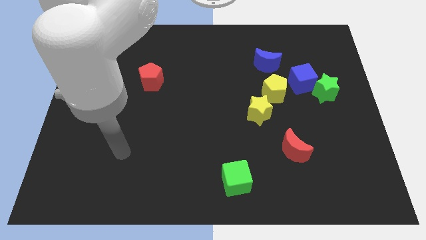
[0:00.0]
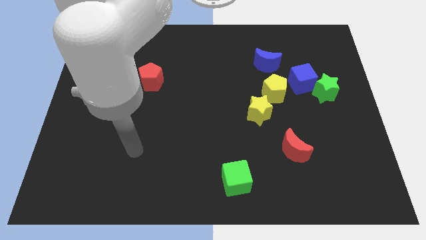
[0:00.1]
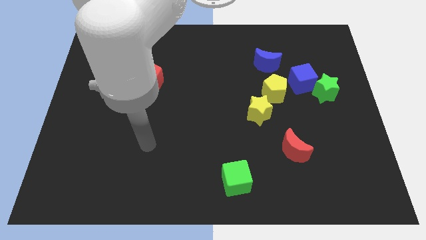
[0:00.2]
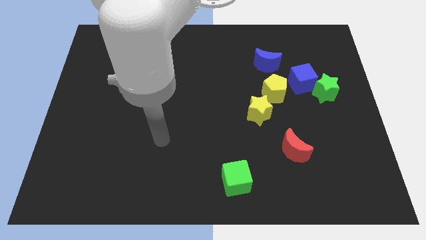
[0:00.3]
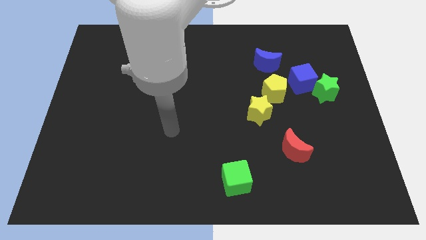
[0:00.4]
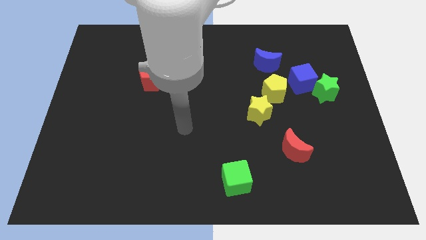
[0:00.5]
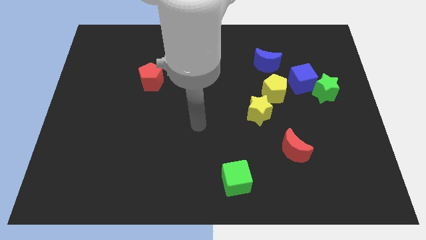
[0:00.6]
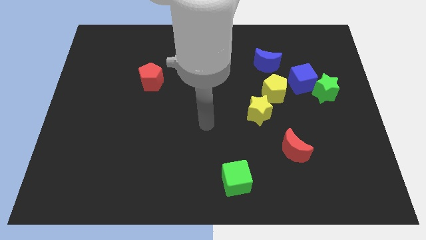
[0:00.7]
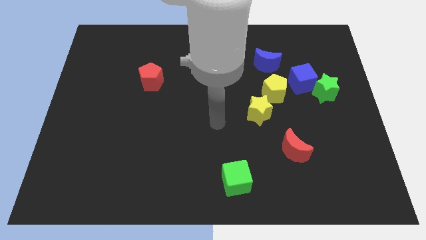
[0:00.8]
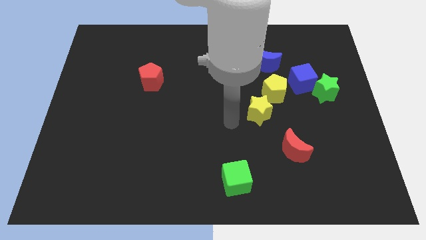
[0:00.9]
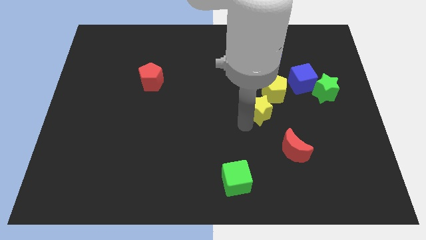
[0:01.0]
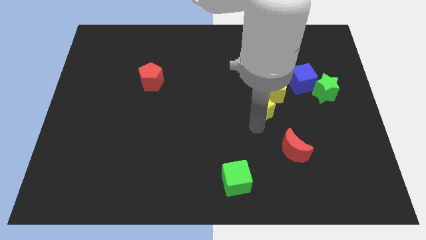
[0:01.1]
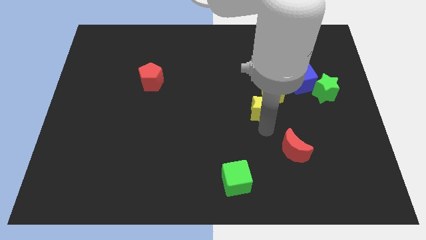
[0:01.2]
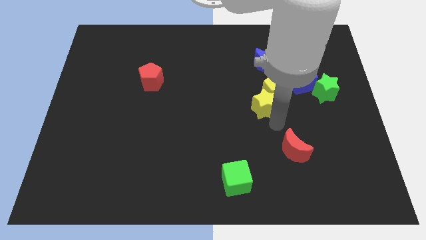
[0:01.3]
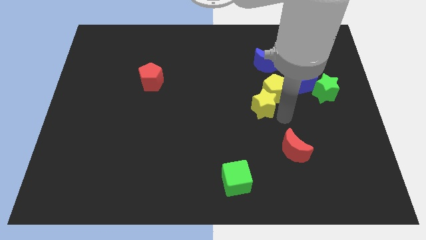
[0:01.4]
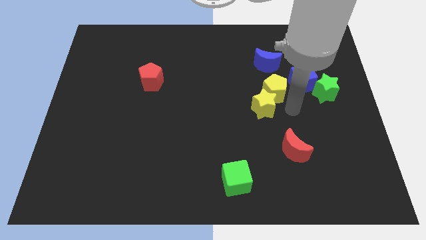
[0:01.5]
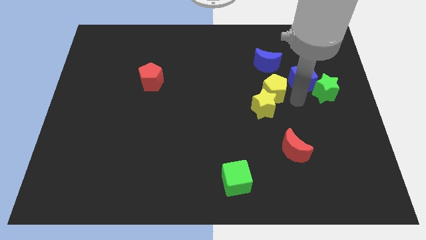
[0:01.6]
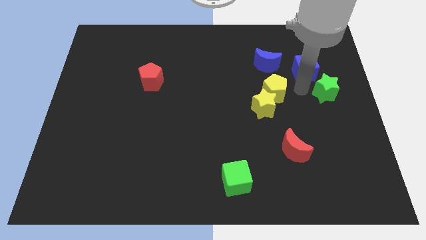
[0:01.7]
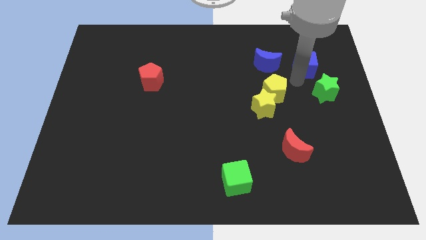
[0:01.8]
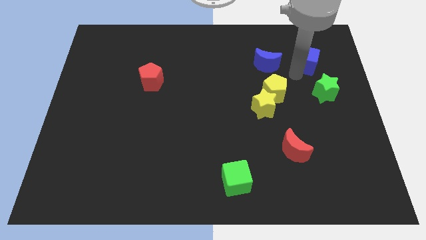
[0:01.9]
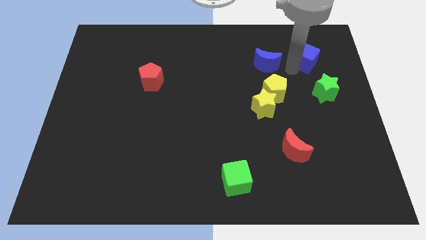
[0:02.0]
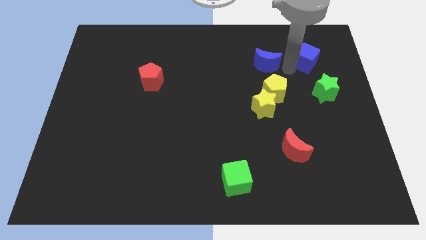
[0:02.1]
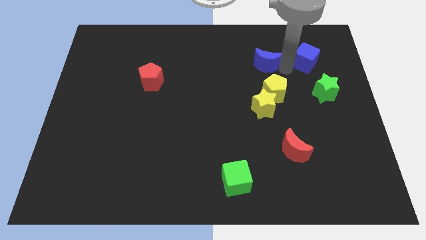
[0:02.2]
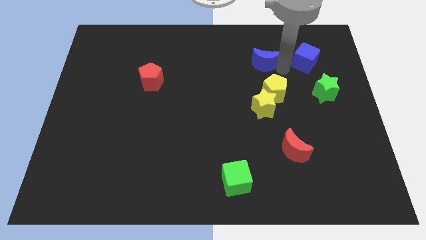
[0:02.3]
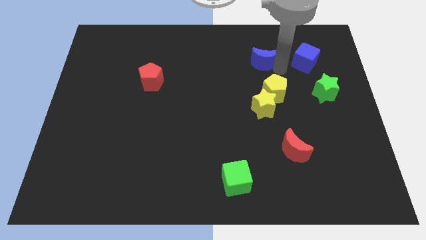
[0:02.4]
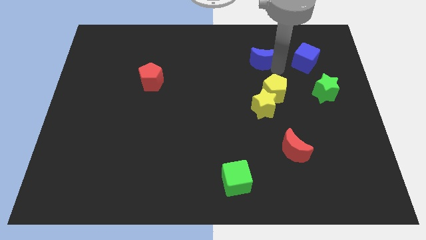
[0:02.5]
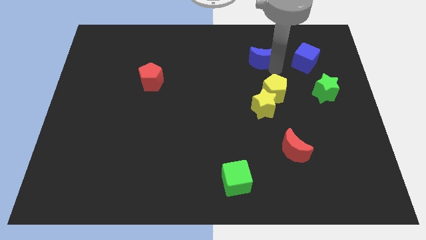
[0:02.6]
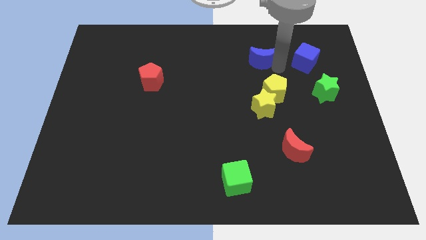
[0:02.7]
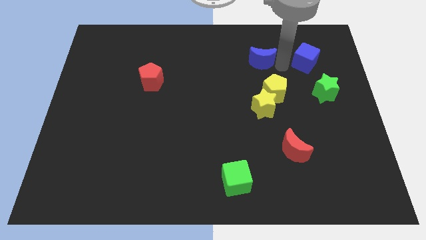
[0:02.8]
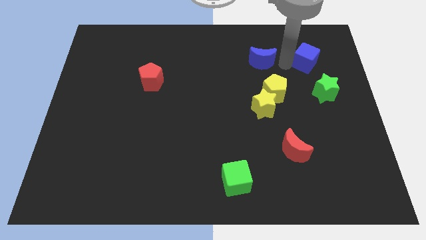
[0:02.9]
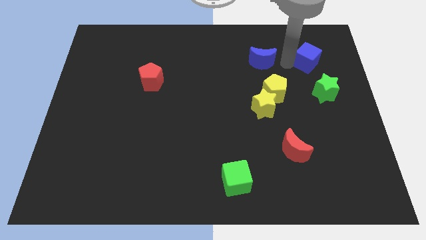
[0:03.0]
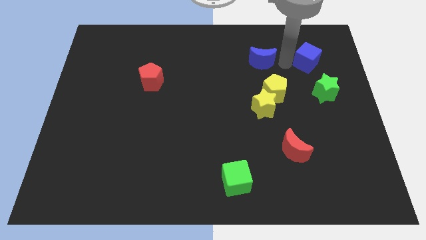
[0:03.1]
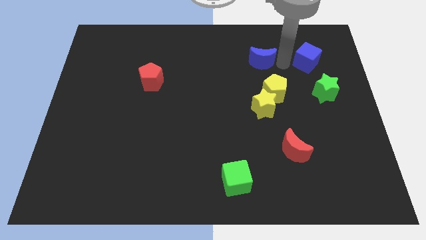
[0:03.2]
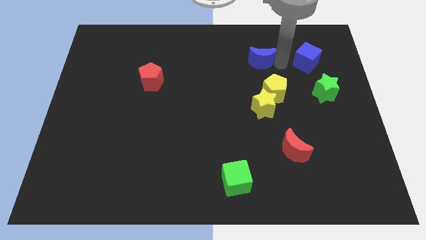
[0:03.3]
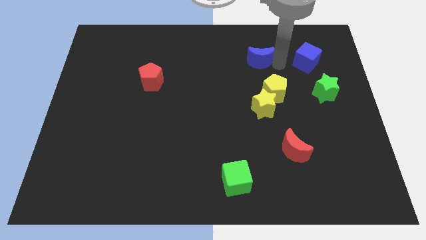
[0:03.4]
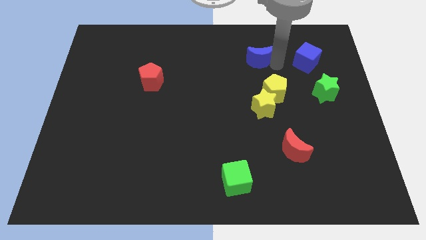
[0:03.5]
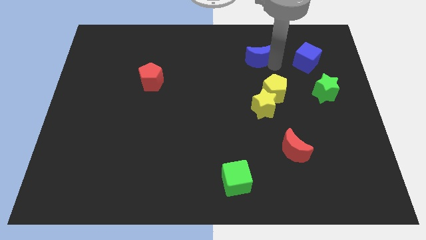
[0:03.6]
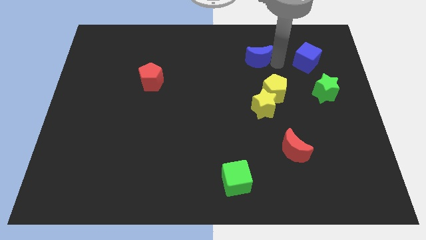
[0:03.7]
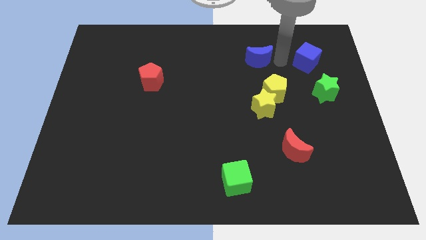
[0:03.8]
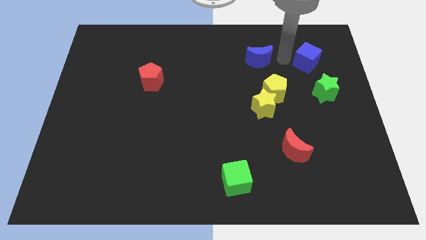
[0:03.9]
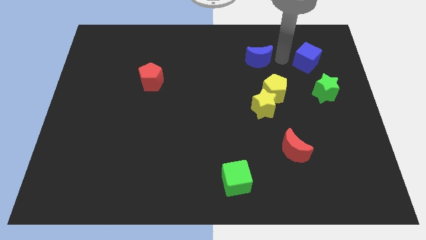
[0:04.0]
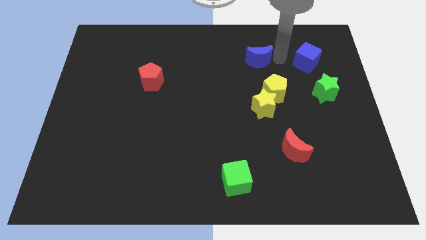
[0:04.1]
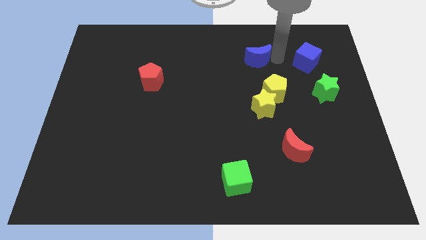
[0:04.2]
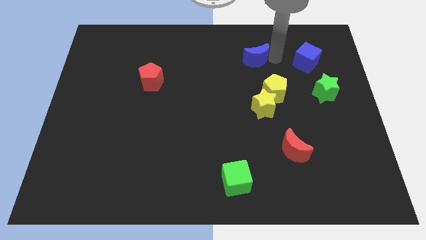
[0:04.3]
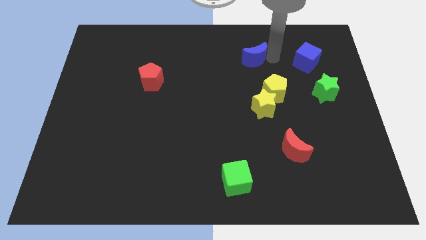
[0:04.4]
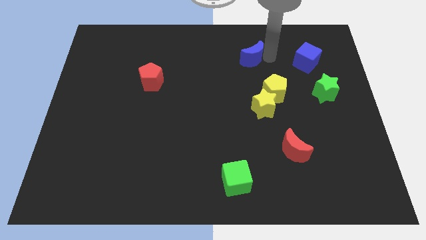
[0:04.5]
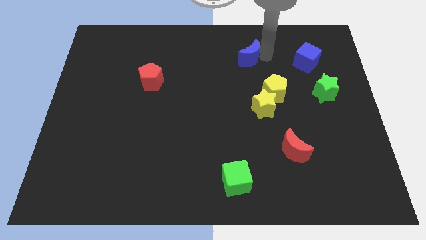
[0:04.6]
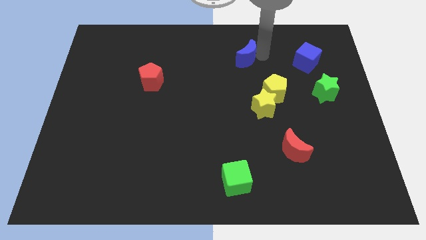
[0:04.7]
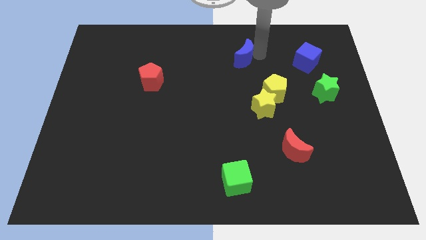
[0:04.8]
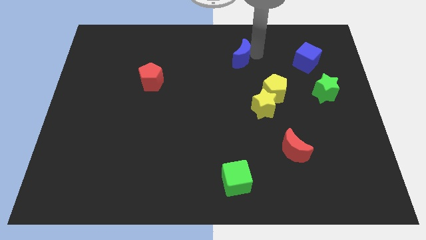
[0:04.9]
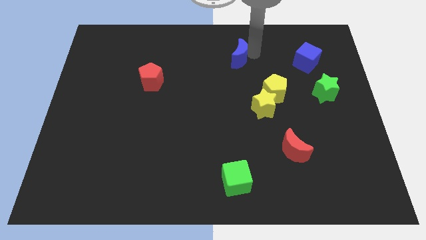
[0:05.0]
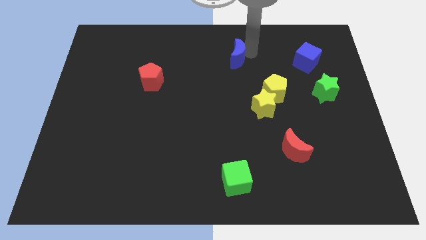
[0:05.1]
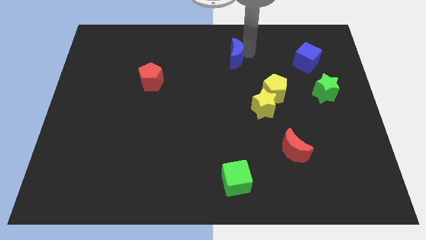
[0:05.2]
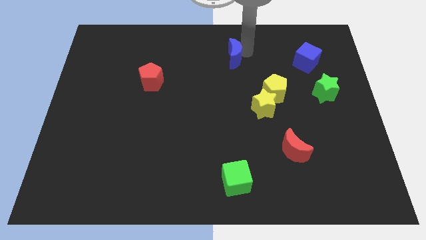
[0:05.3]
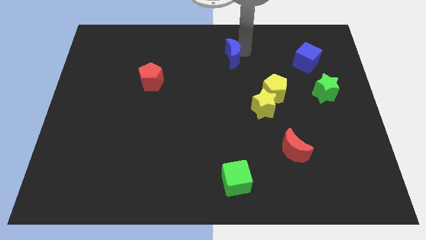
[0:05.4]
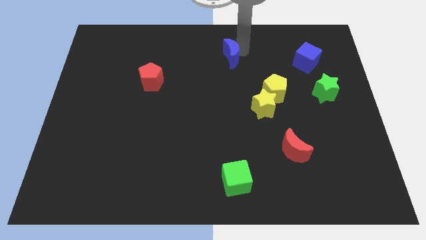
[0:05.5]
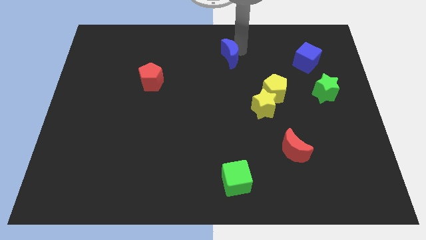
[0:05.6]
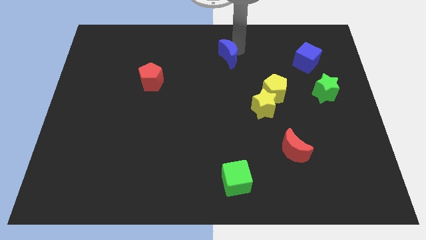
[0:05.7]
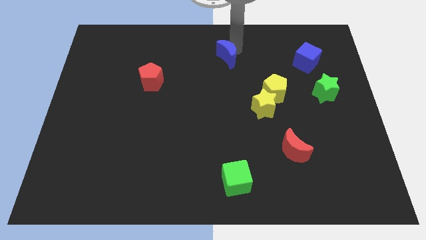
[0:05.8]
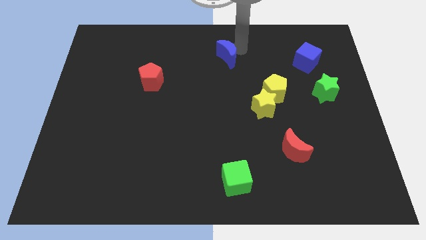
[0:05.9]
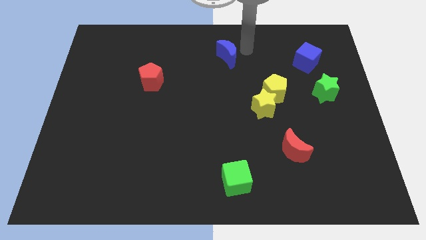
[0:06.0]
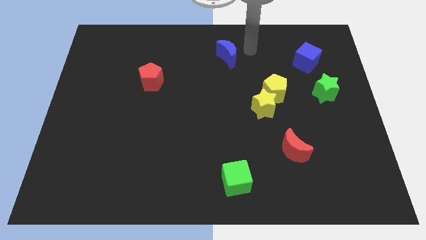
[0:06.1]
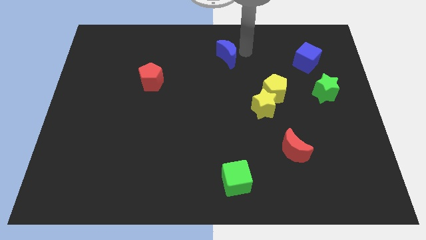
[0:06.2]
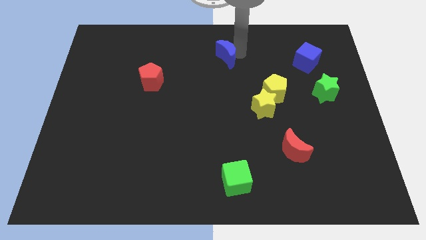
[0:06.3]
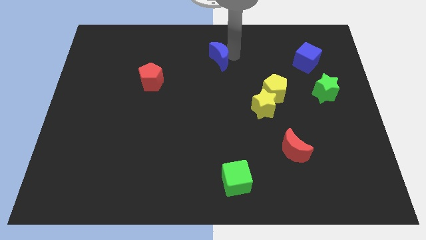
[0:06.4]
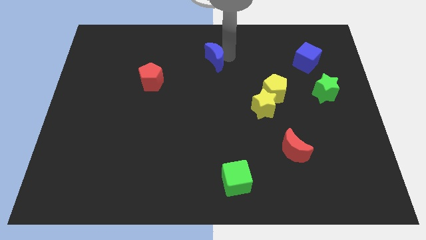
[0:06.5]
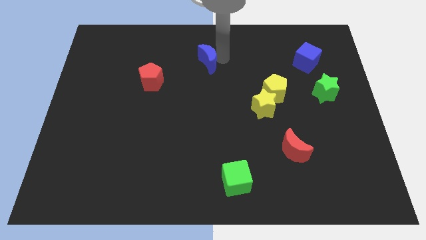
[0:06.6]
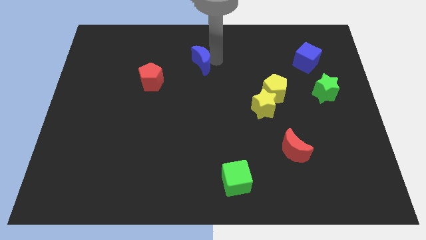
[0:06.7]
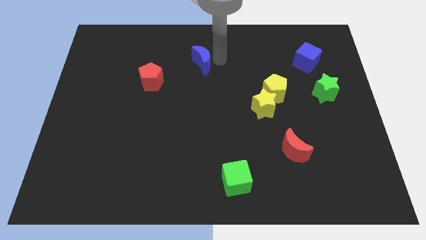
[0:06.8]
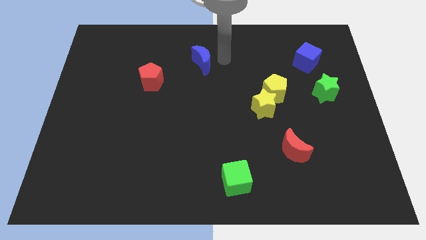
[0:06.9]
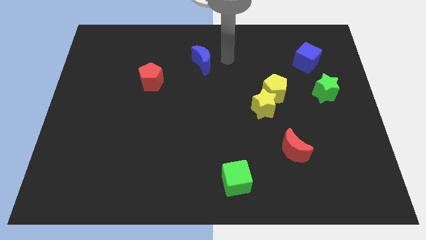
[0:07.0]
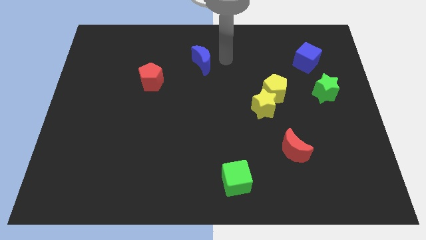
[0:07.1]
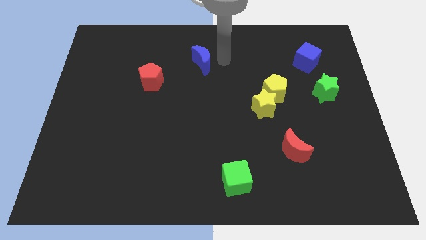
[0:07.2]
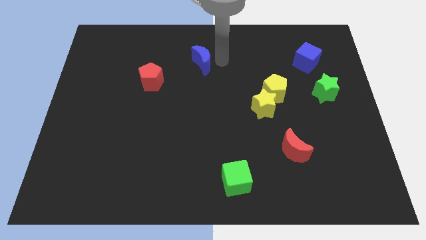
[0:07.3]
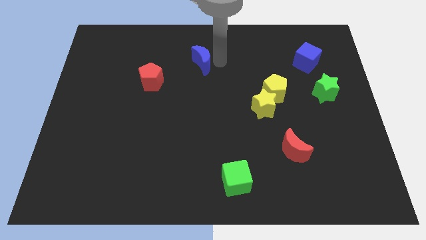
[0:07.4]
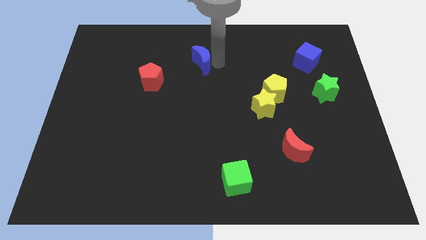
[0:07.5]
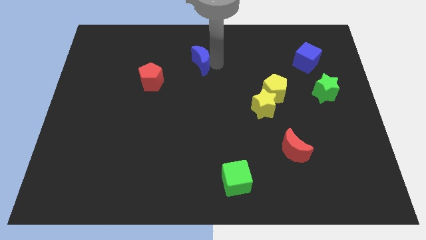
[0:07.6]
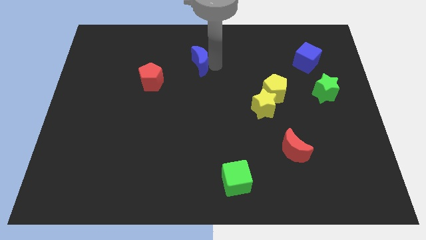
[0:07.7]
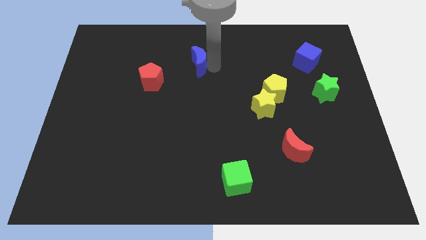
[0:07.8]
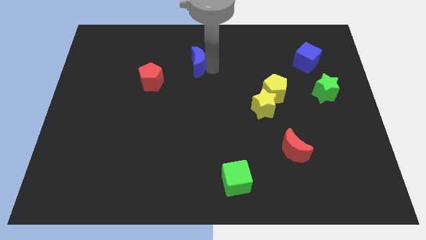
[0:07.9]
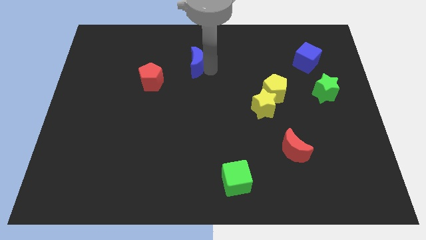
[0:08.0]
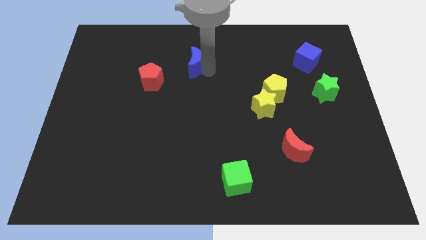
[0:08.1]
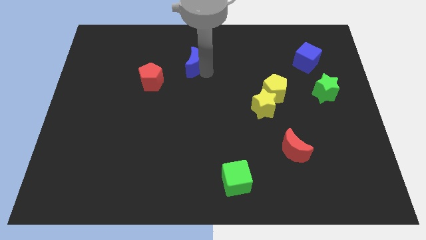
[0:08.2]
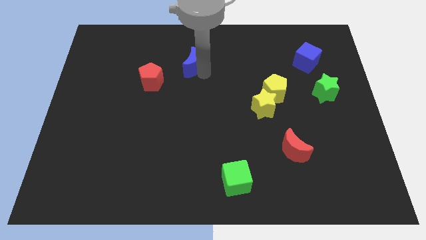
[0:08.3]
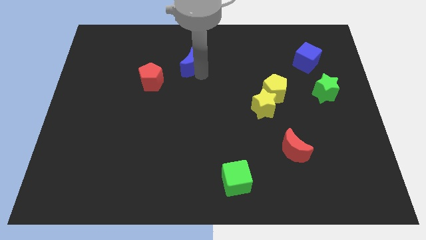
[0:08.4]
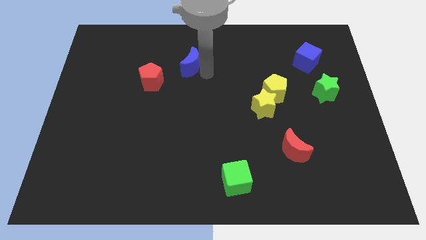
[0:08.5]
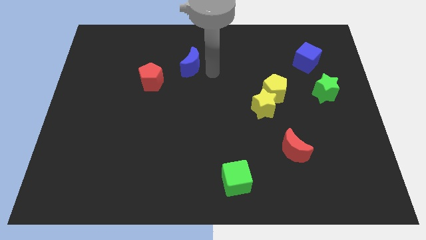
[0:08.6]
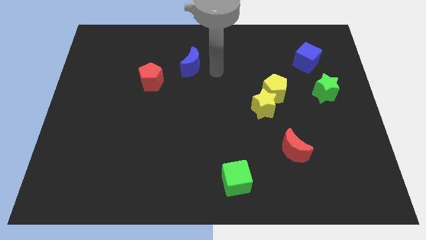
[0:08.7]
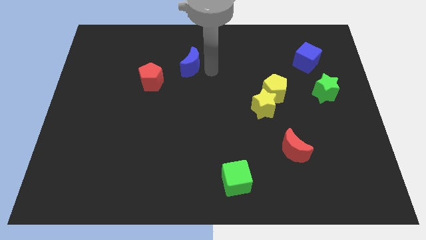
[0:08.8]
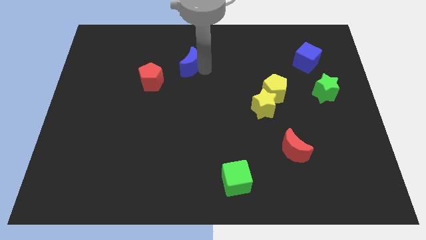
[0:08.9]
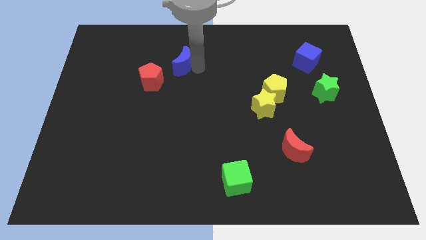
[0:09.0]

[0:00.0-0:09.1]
move the blue moon left
